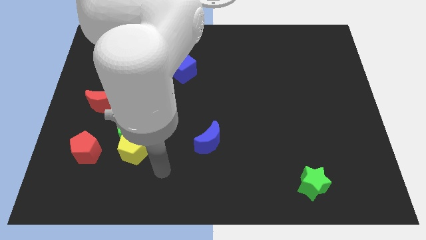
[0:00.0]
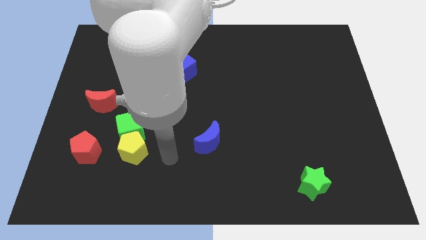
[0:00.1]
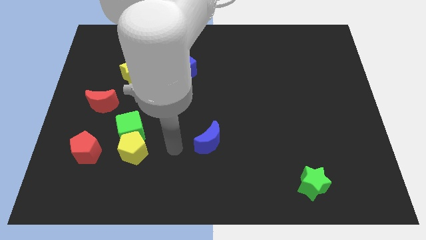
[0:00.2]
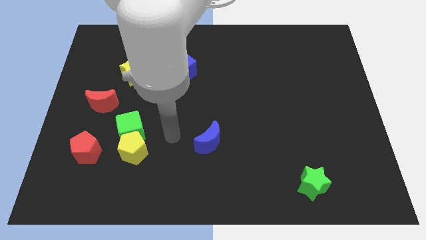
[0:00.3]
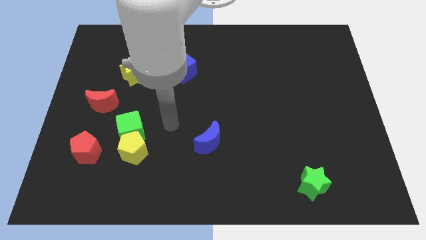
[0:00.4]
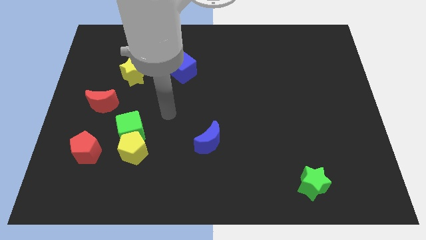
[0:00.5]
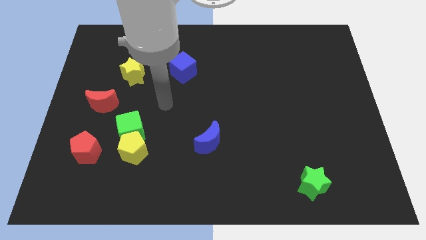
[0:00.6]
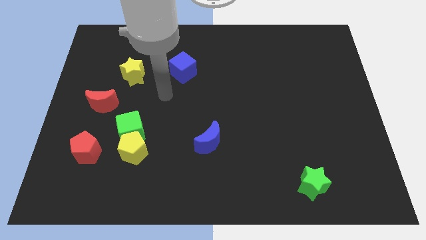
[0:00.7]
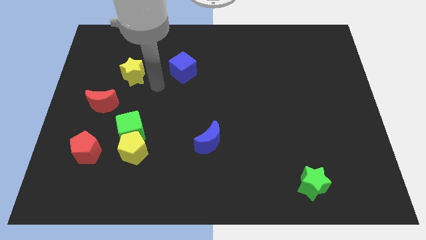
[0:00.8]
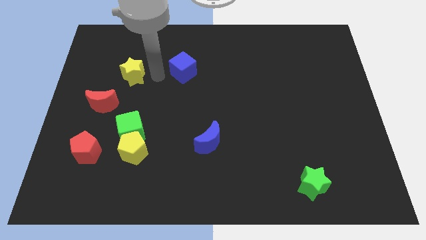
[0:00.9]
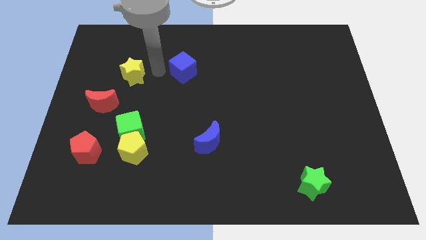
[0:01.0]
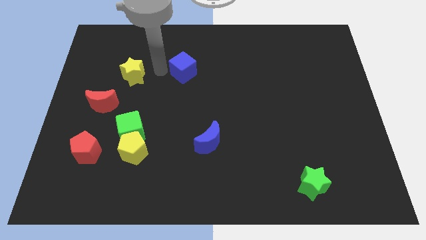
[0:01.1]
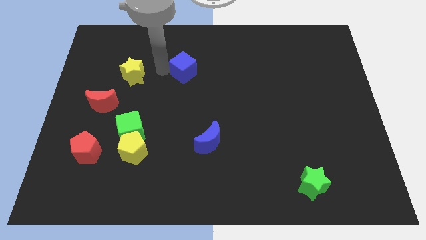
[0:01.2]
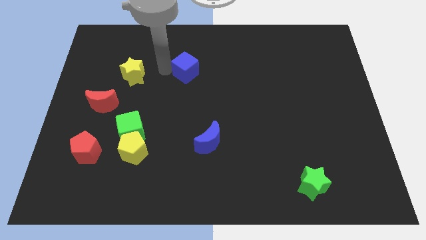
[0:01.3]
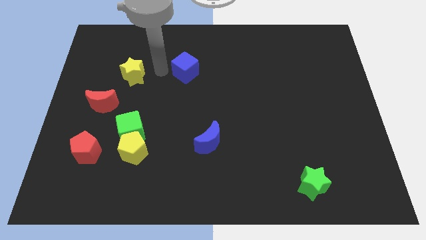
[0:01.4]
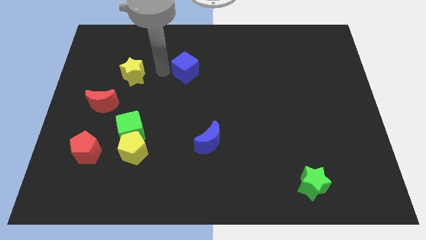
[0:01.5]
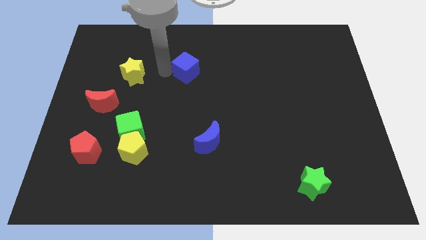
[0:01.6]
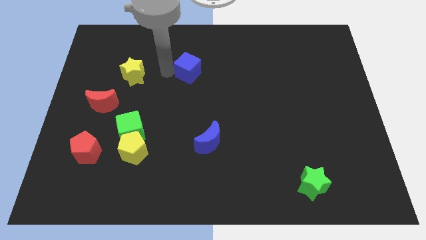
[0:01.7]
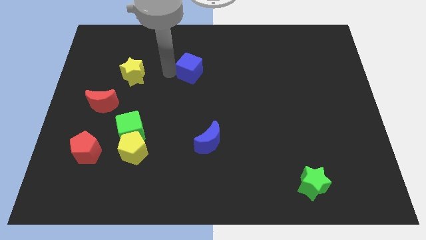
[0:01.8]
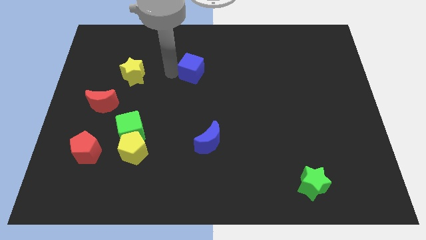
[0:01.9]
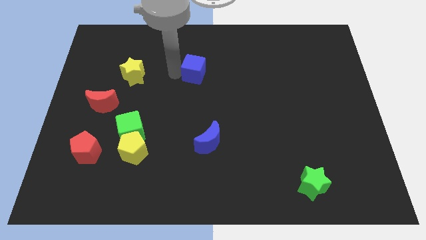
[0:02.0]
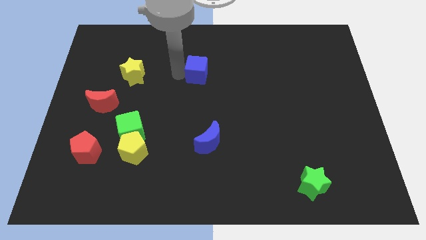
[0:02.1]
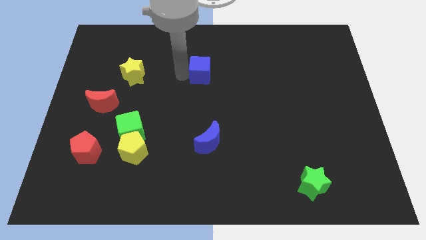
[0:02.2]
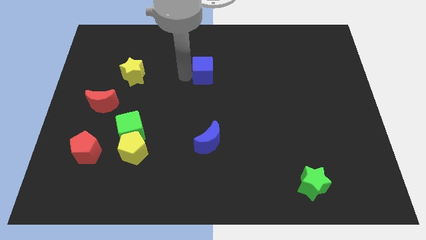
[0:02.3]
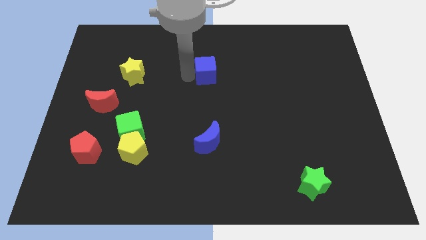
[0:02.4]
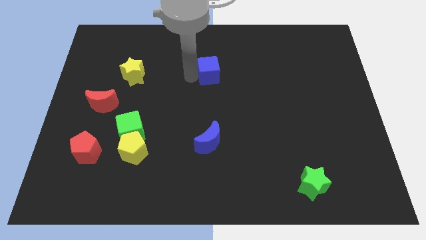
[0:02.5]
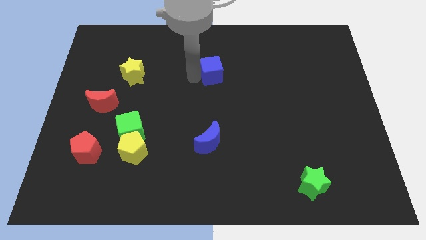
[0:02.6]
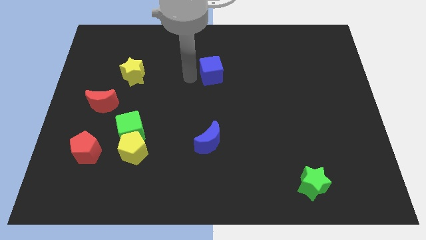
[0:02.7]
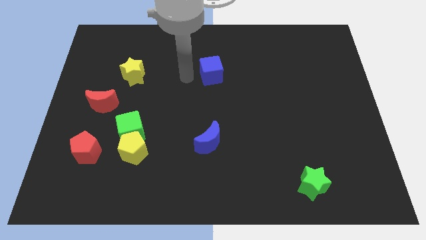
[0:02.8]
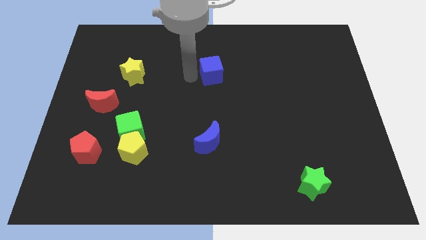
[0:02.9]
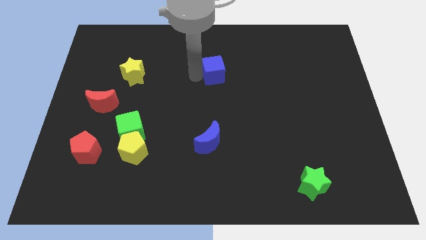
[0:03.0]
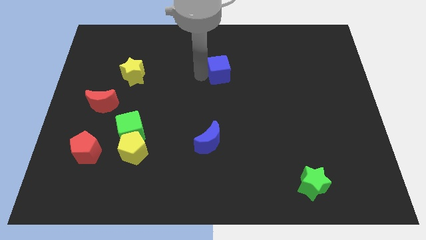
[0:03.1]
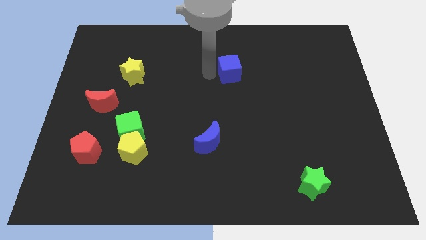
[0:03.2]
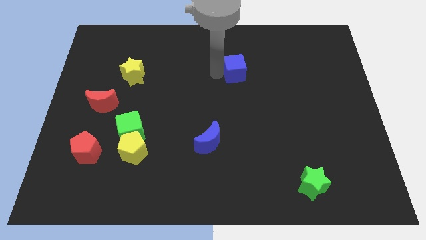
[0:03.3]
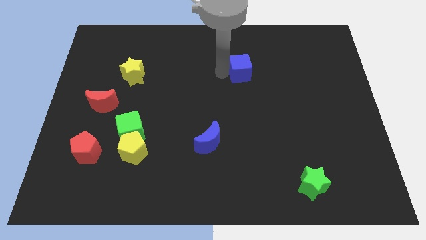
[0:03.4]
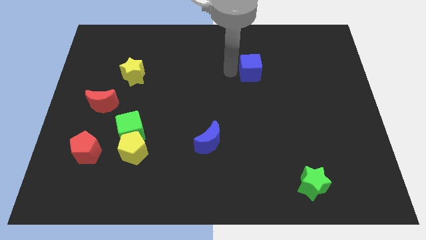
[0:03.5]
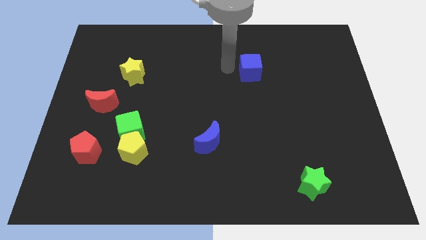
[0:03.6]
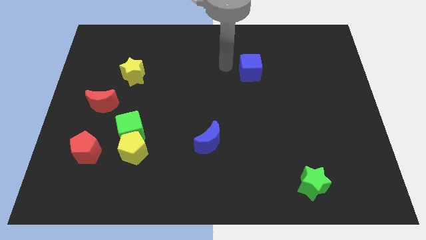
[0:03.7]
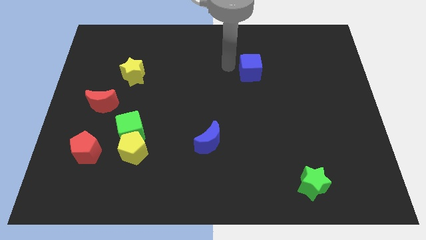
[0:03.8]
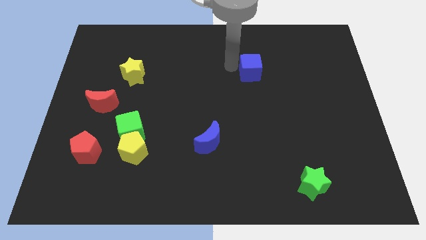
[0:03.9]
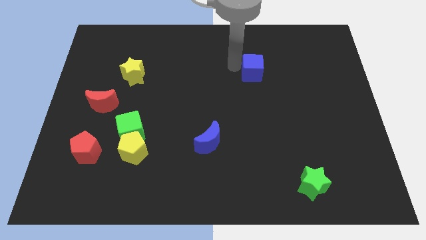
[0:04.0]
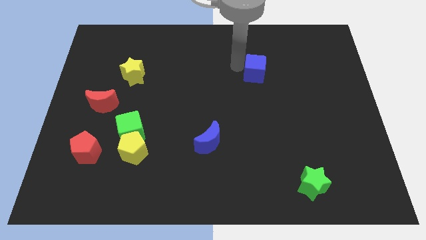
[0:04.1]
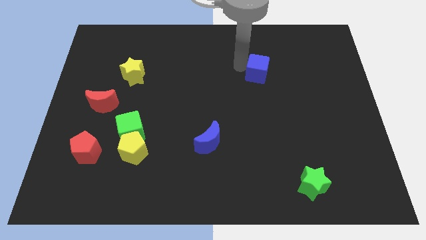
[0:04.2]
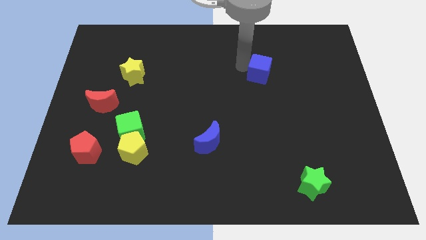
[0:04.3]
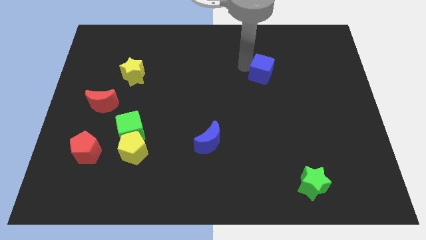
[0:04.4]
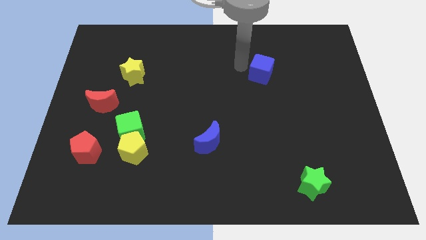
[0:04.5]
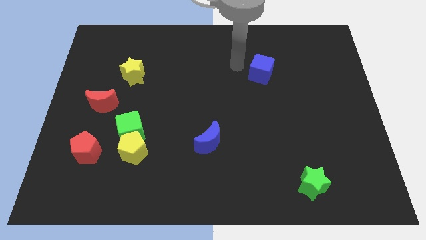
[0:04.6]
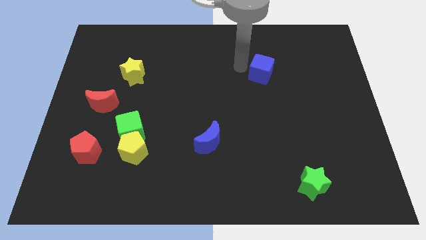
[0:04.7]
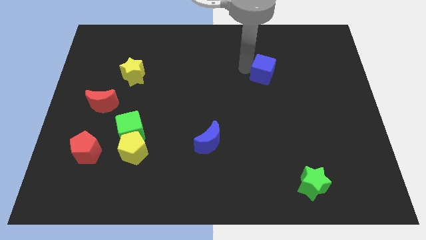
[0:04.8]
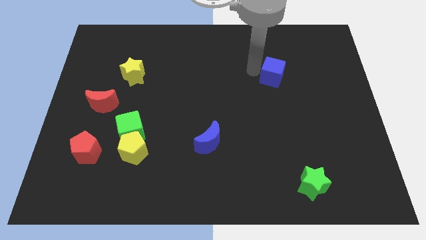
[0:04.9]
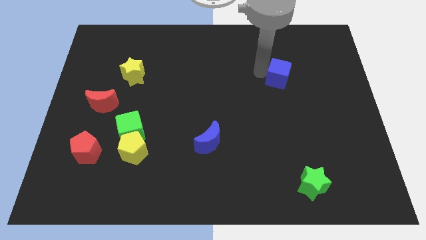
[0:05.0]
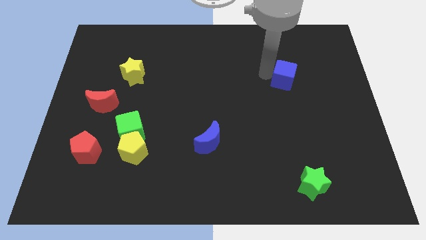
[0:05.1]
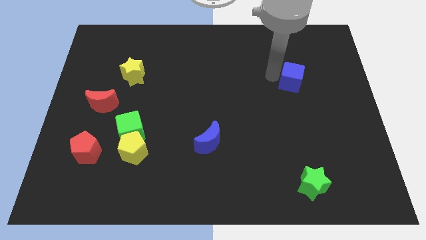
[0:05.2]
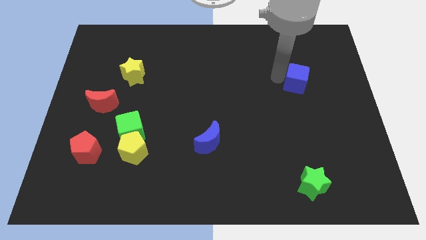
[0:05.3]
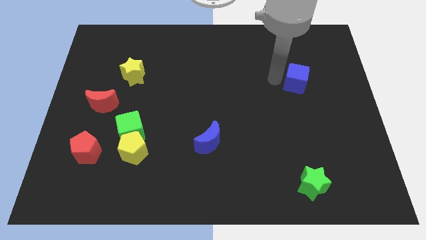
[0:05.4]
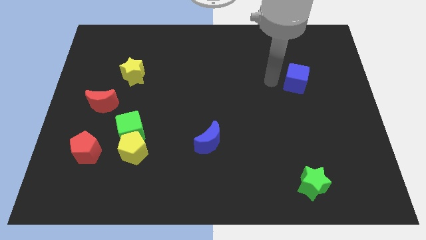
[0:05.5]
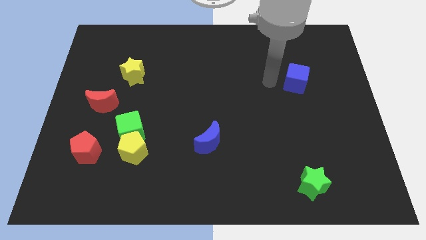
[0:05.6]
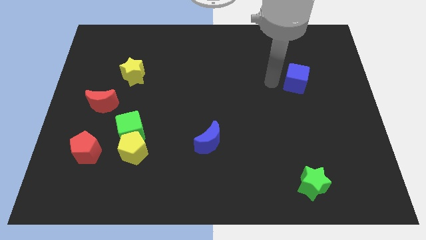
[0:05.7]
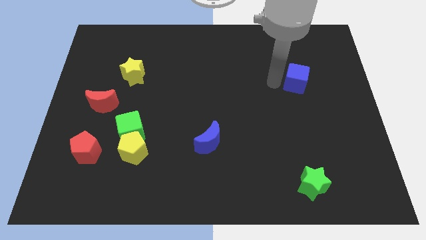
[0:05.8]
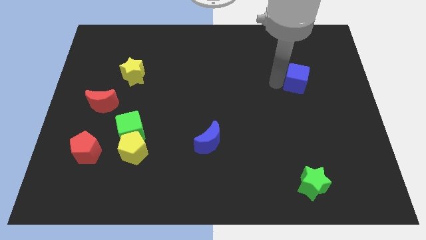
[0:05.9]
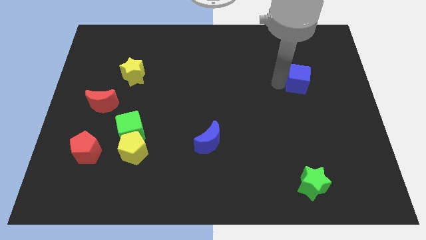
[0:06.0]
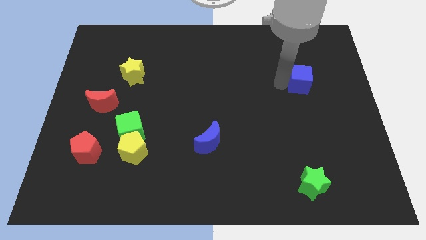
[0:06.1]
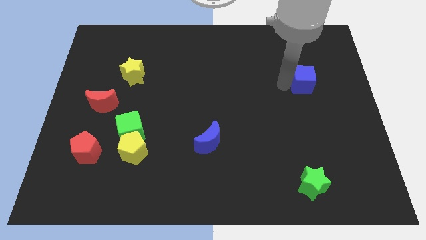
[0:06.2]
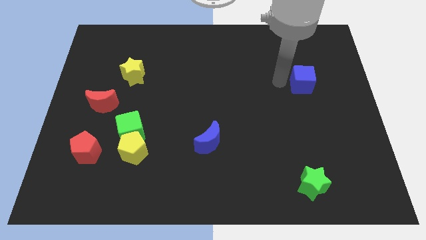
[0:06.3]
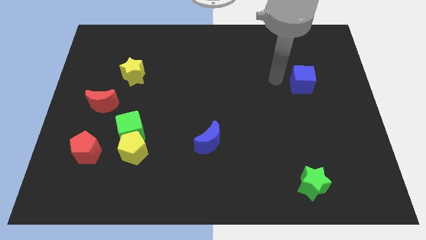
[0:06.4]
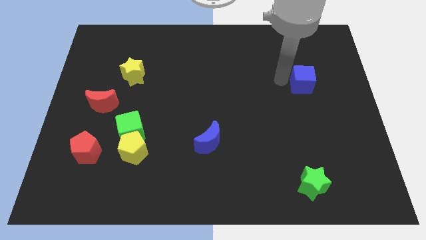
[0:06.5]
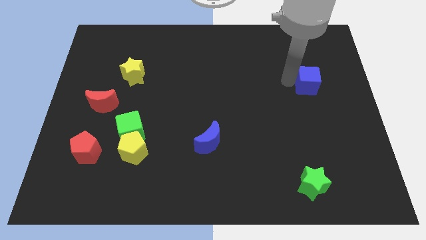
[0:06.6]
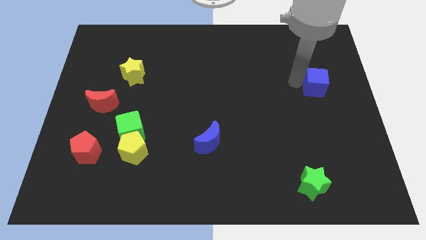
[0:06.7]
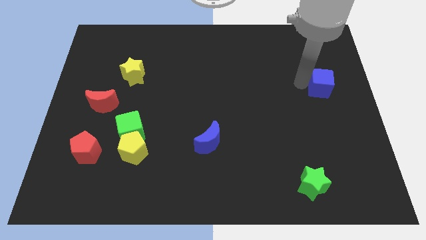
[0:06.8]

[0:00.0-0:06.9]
slide the blue cube to the right side of the board
